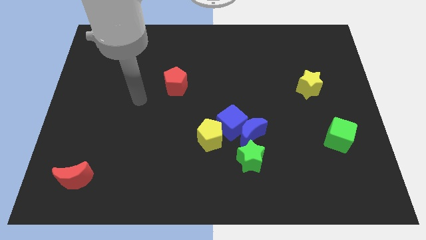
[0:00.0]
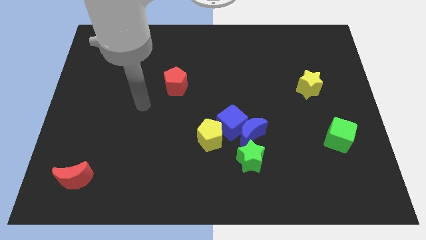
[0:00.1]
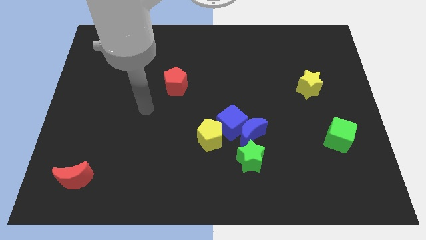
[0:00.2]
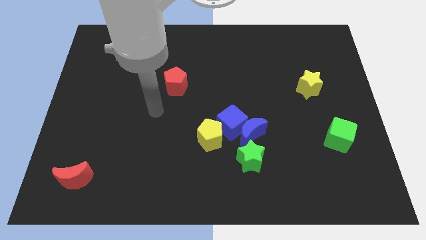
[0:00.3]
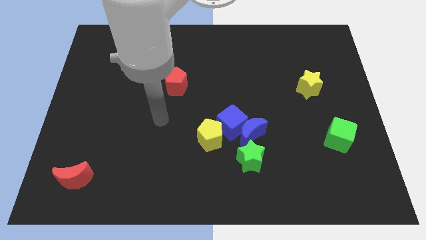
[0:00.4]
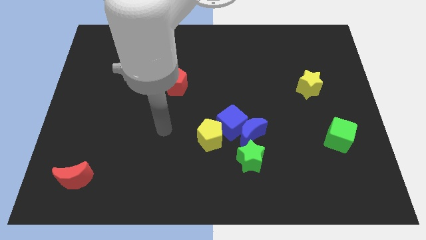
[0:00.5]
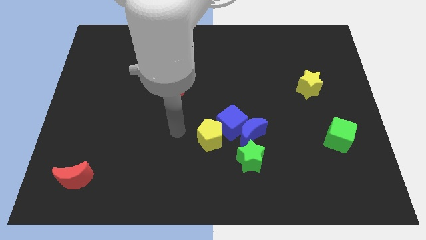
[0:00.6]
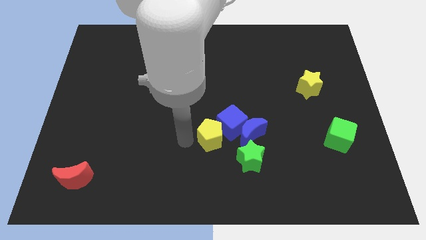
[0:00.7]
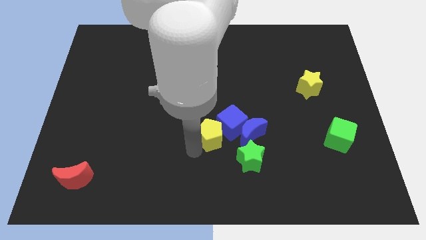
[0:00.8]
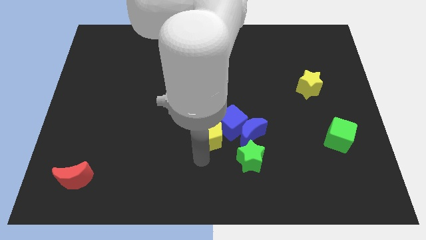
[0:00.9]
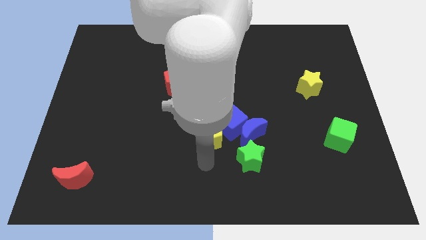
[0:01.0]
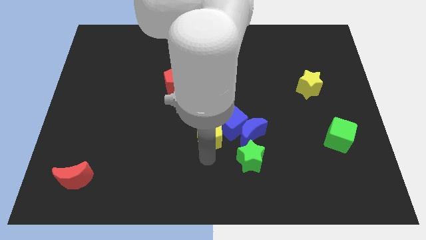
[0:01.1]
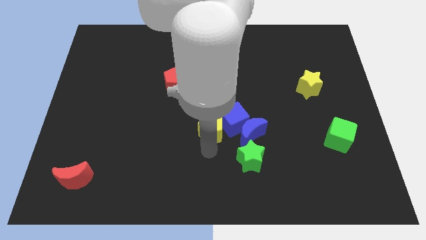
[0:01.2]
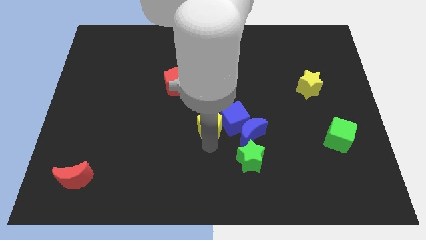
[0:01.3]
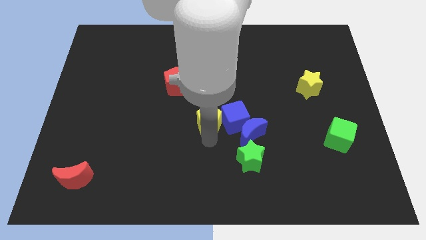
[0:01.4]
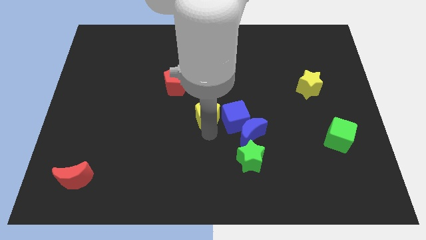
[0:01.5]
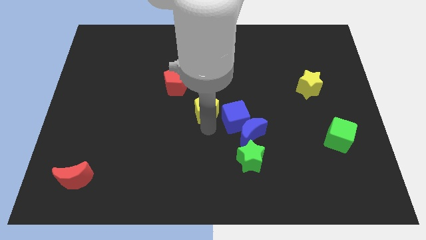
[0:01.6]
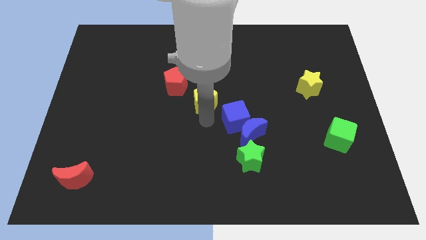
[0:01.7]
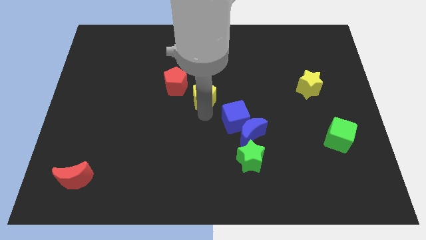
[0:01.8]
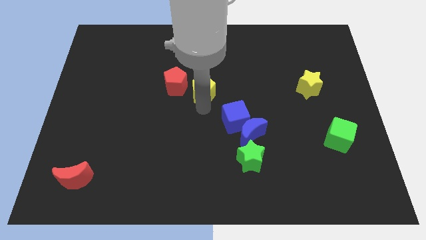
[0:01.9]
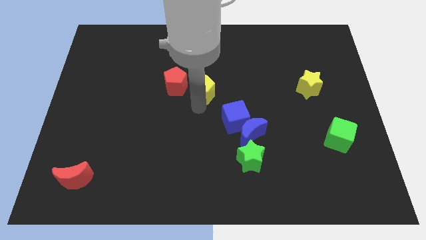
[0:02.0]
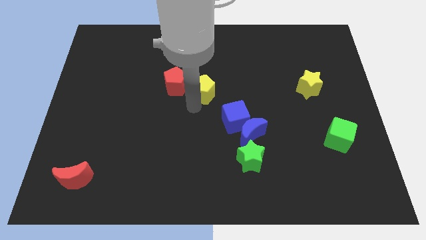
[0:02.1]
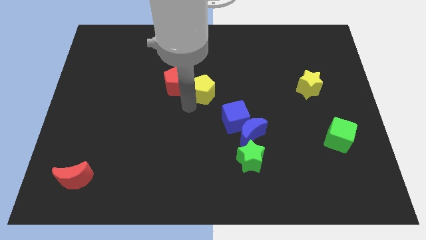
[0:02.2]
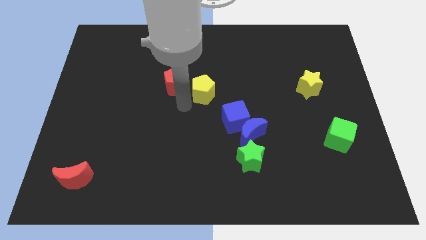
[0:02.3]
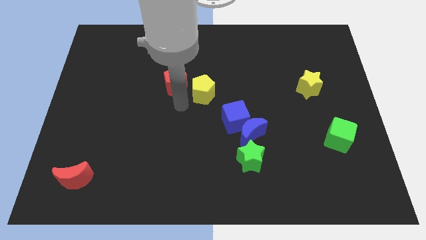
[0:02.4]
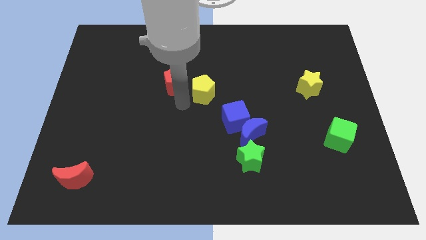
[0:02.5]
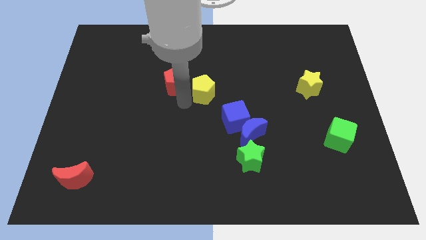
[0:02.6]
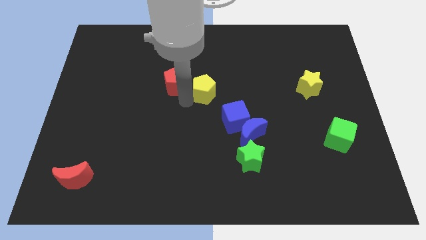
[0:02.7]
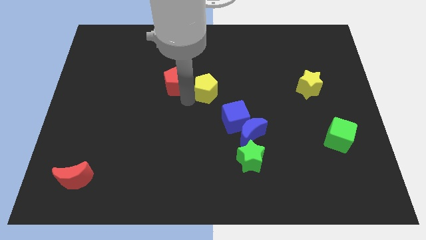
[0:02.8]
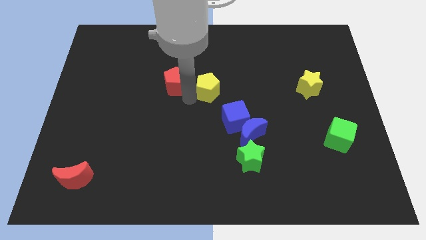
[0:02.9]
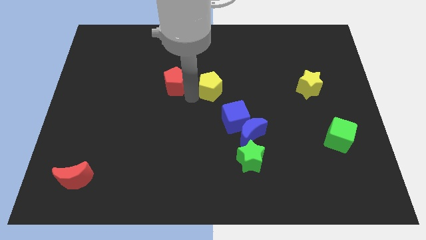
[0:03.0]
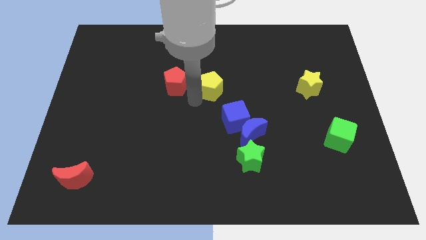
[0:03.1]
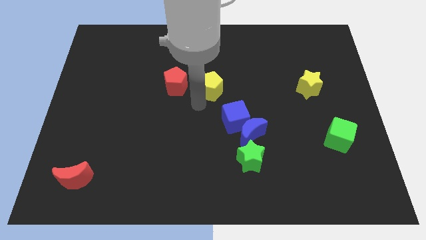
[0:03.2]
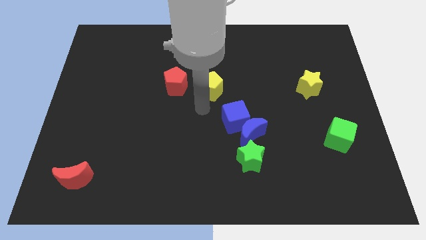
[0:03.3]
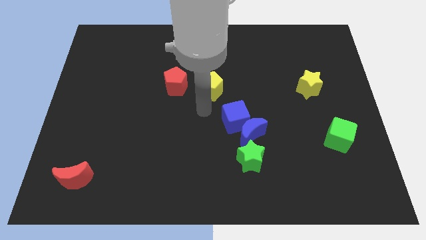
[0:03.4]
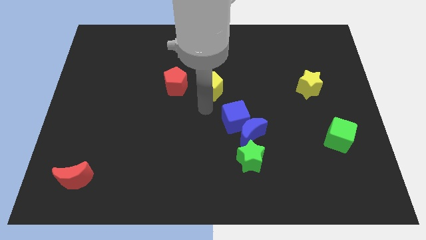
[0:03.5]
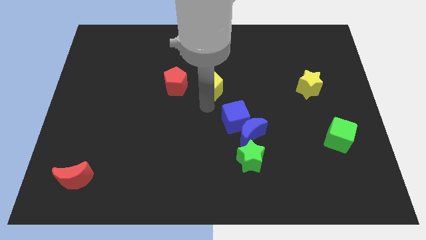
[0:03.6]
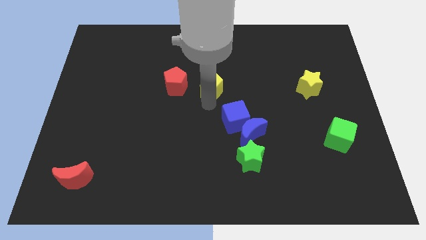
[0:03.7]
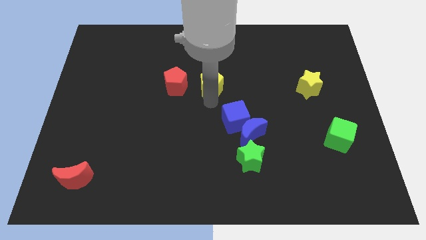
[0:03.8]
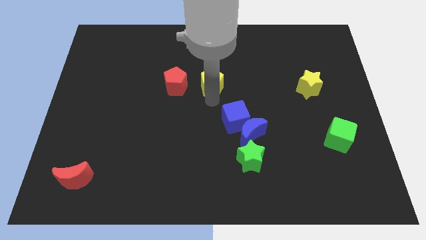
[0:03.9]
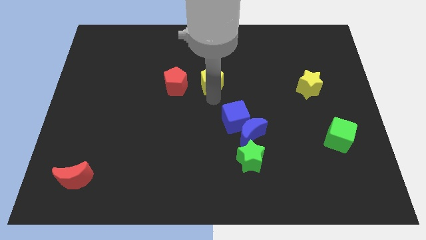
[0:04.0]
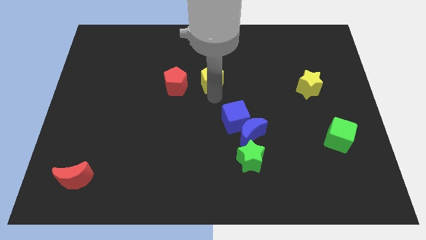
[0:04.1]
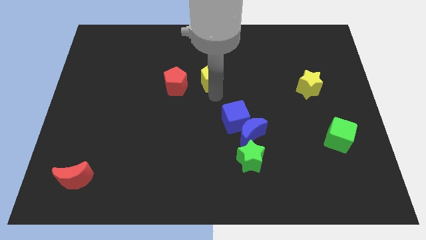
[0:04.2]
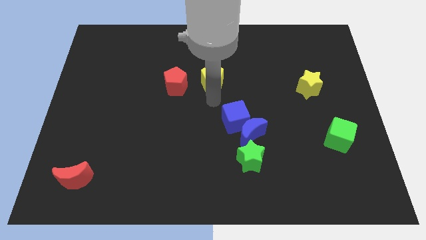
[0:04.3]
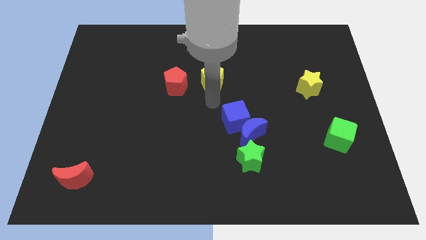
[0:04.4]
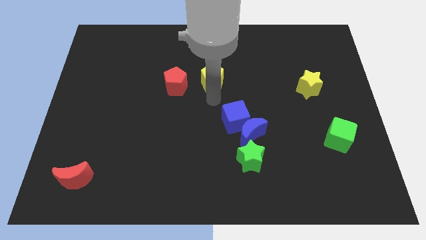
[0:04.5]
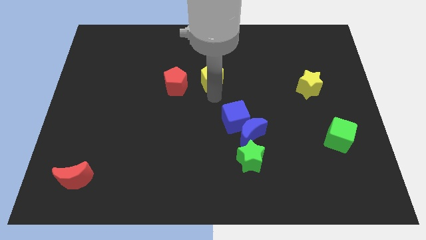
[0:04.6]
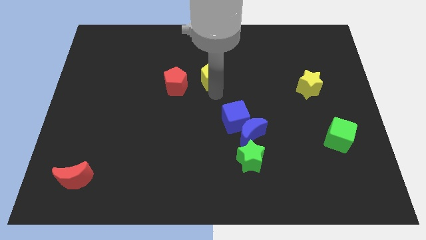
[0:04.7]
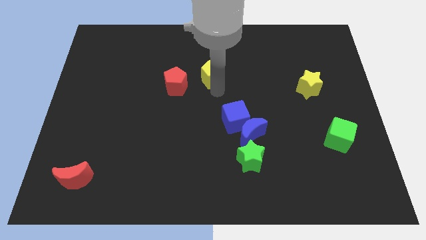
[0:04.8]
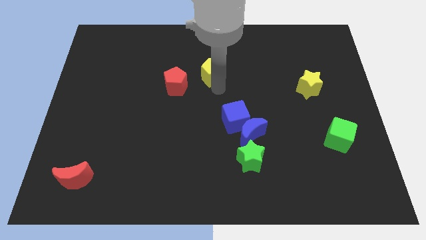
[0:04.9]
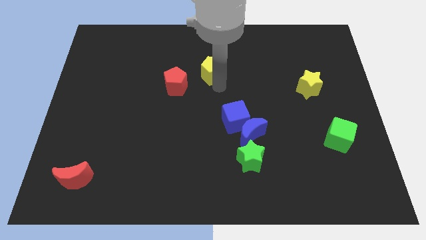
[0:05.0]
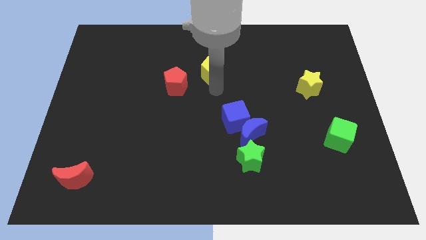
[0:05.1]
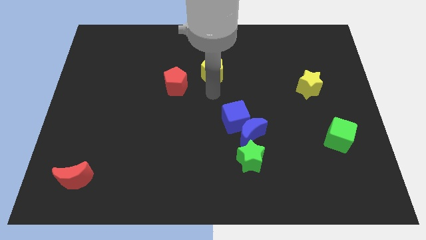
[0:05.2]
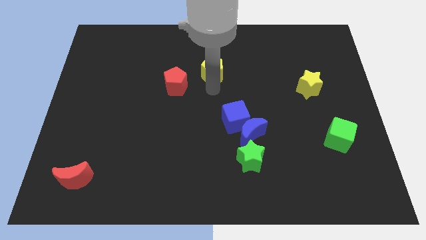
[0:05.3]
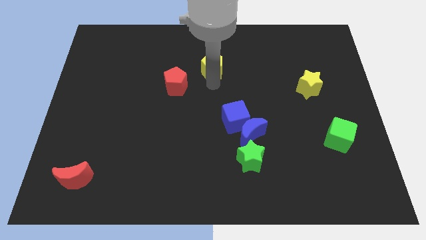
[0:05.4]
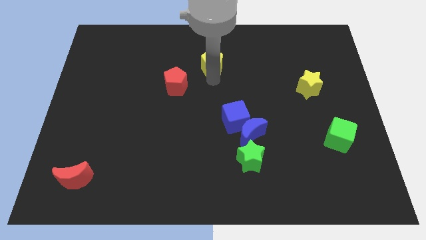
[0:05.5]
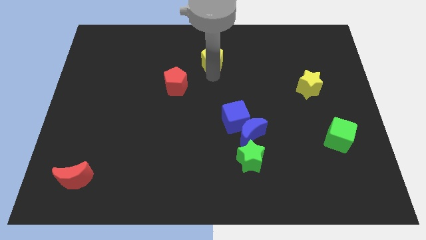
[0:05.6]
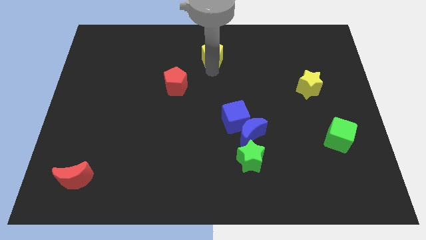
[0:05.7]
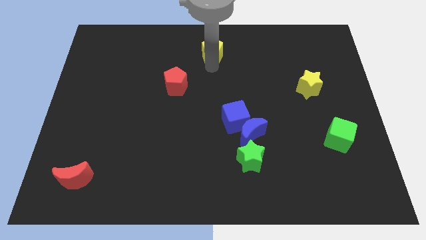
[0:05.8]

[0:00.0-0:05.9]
move the yellow pentagon to the top side
